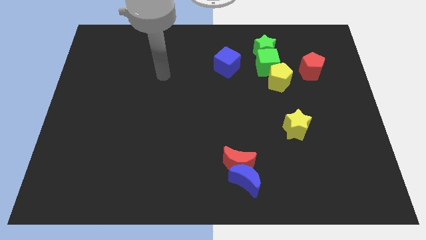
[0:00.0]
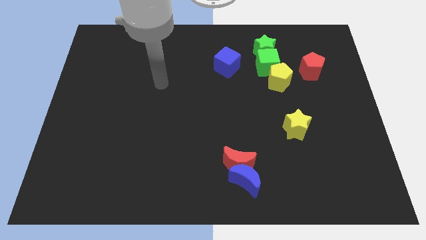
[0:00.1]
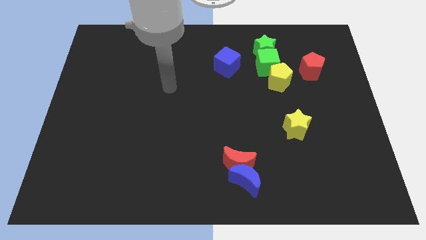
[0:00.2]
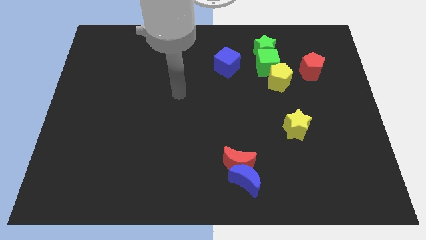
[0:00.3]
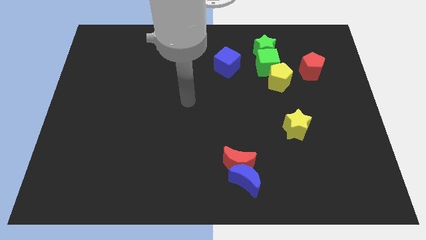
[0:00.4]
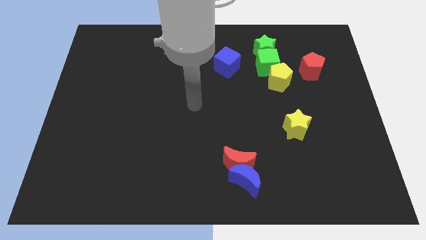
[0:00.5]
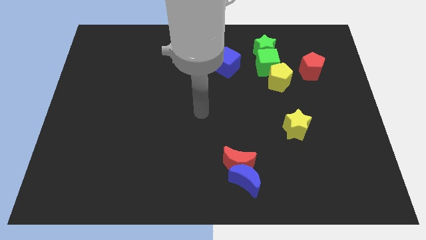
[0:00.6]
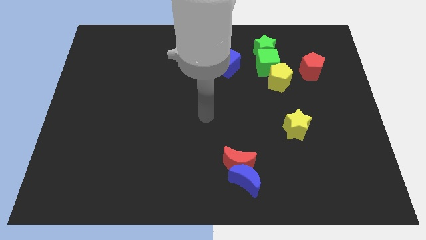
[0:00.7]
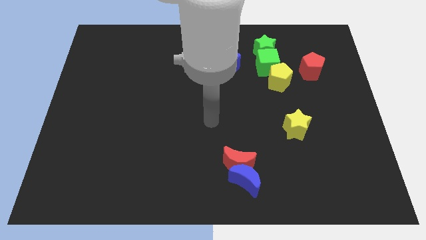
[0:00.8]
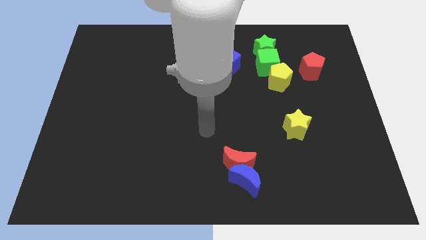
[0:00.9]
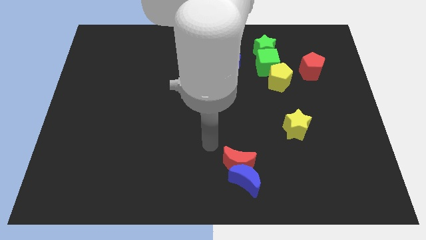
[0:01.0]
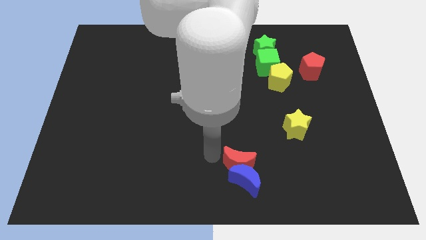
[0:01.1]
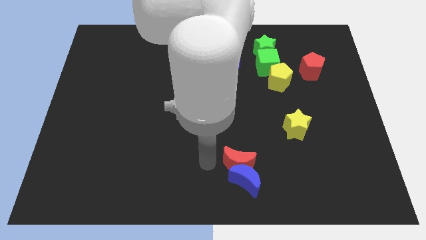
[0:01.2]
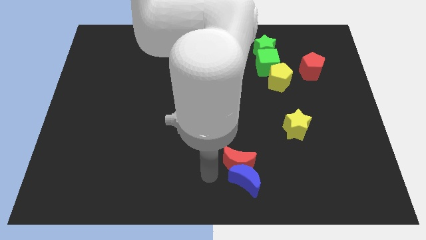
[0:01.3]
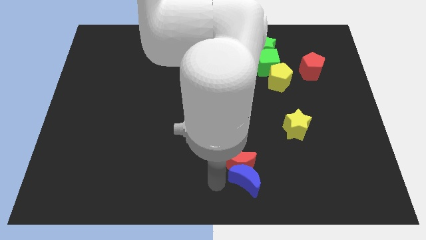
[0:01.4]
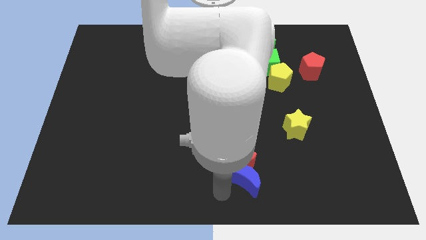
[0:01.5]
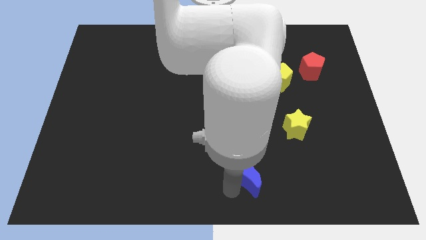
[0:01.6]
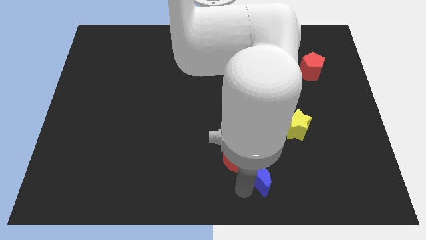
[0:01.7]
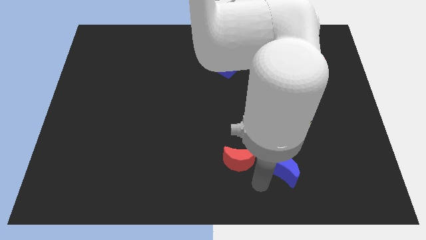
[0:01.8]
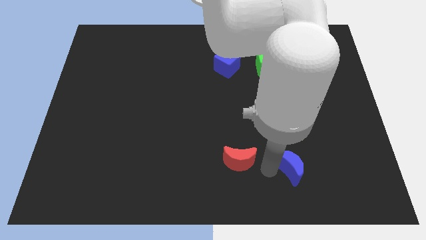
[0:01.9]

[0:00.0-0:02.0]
separate the red moon from the blue moon

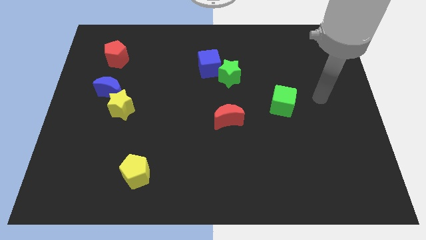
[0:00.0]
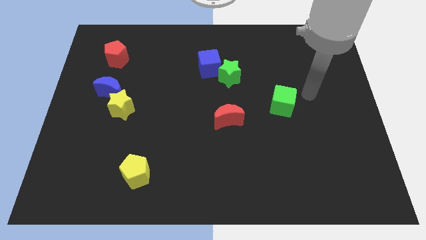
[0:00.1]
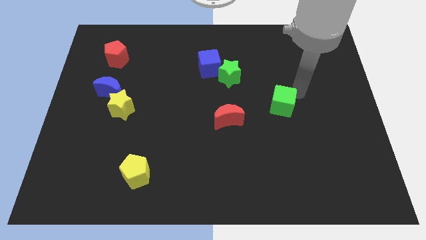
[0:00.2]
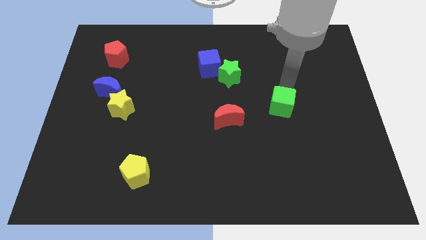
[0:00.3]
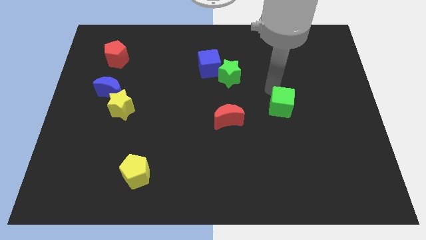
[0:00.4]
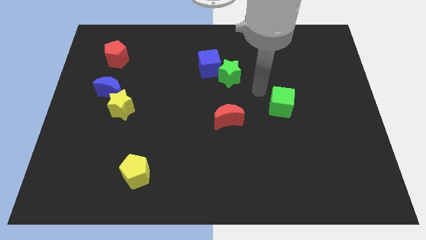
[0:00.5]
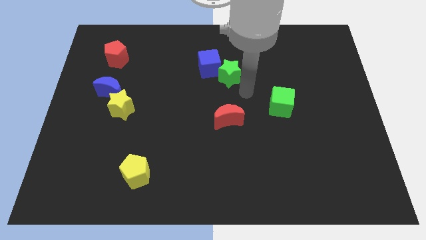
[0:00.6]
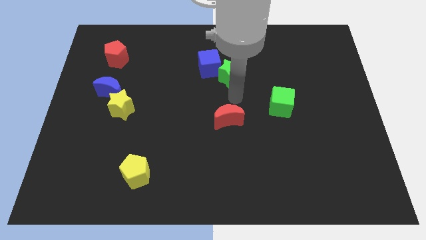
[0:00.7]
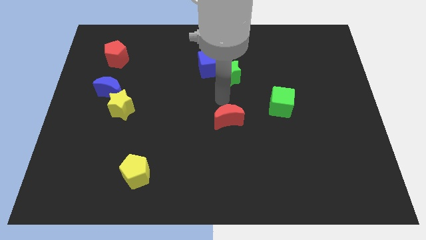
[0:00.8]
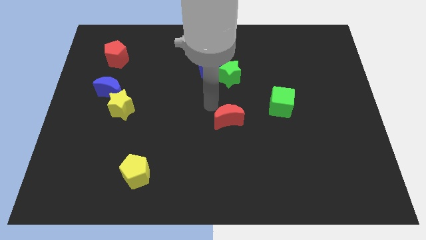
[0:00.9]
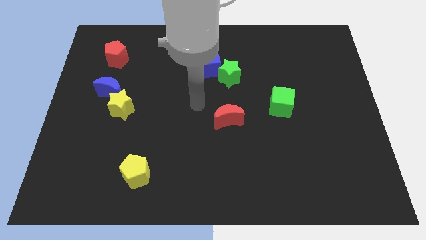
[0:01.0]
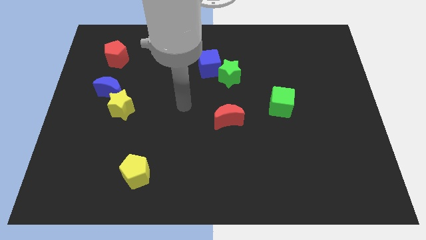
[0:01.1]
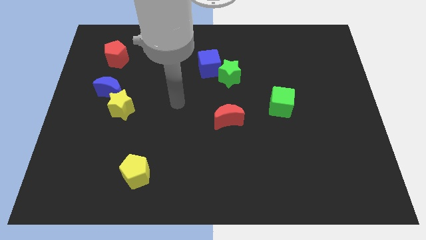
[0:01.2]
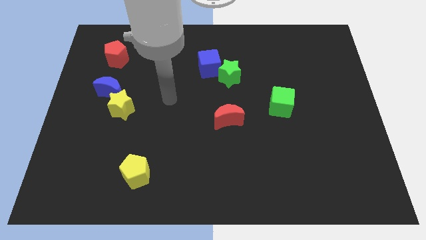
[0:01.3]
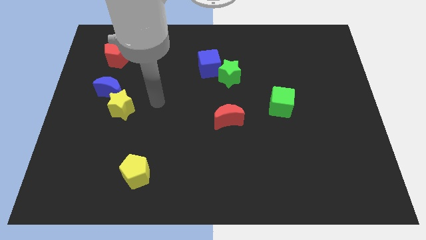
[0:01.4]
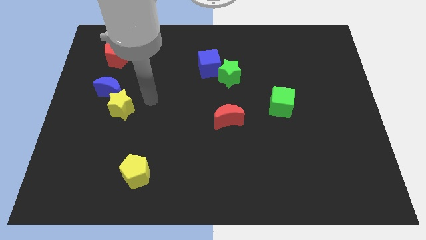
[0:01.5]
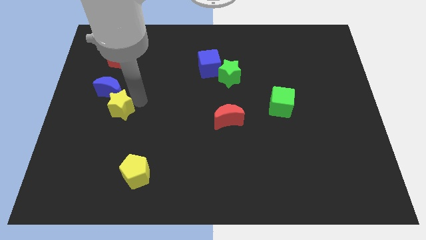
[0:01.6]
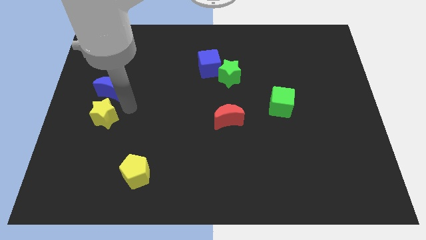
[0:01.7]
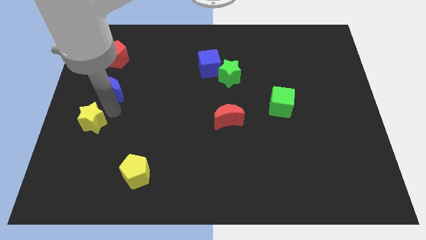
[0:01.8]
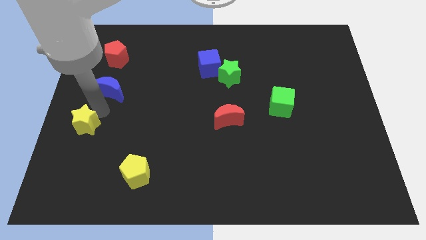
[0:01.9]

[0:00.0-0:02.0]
separate the blue moon from the yellow star

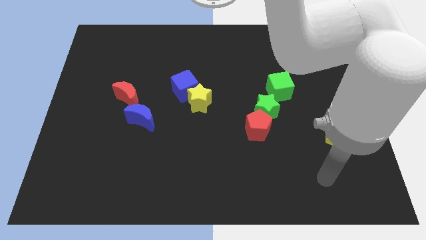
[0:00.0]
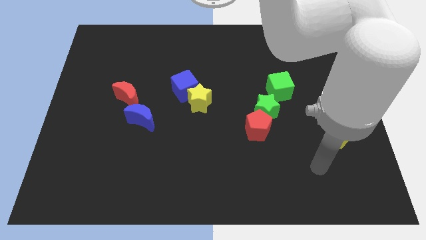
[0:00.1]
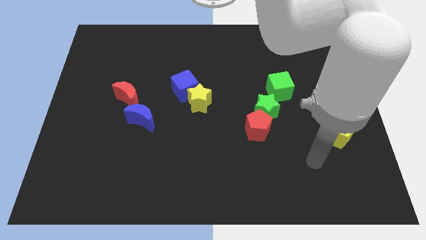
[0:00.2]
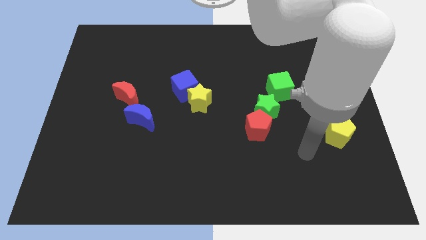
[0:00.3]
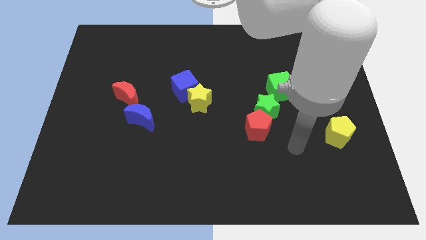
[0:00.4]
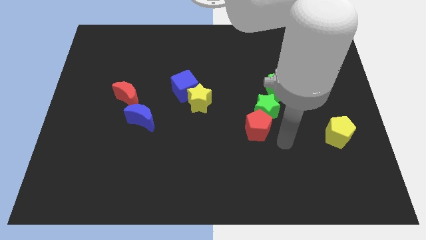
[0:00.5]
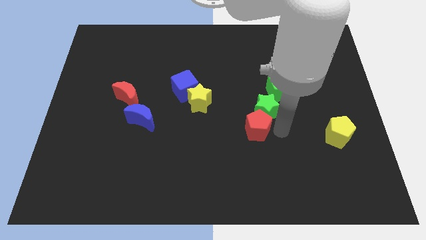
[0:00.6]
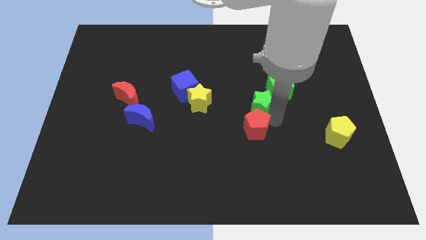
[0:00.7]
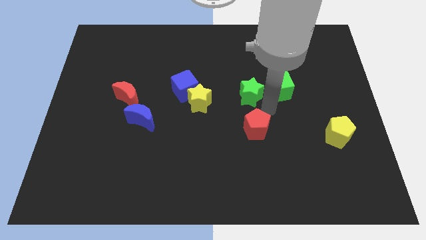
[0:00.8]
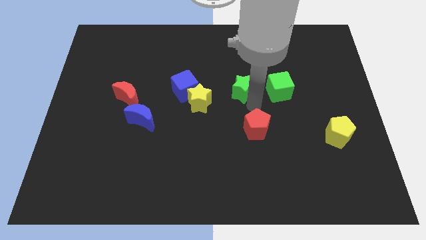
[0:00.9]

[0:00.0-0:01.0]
move the red pentagon away from the green star

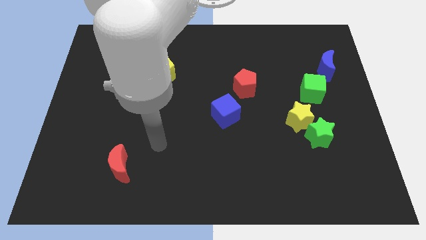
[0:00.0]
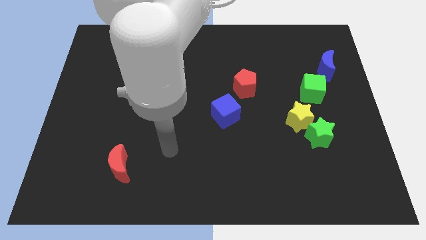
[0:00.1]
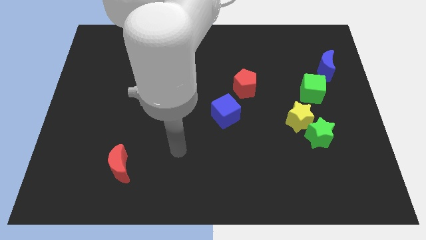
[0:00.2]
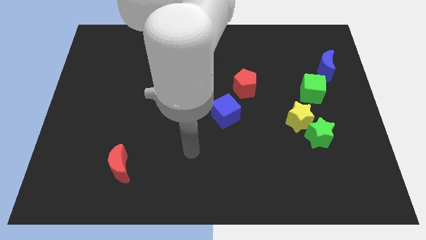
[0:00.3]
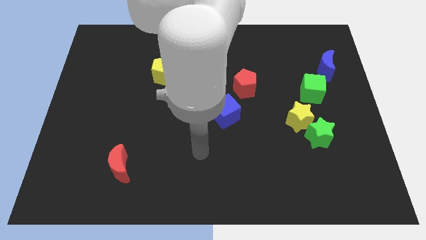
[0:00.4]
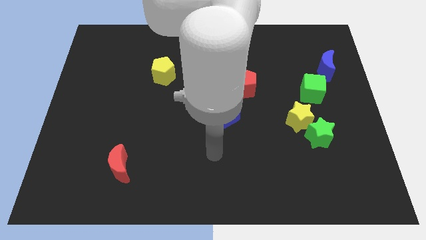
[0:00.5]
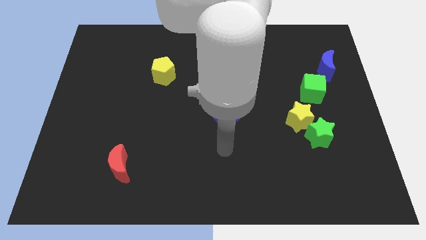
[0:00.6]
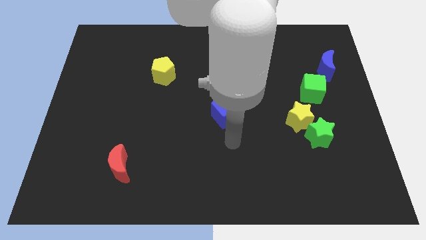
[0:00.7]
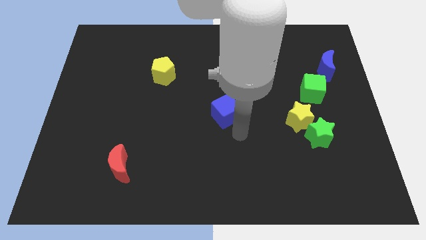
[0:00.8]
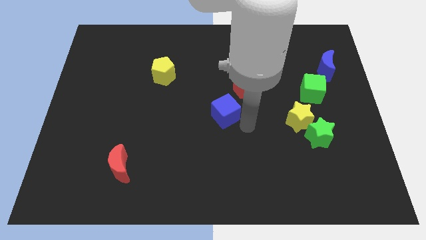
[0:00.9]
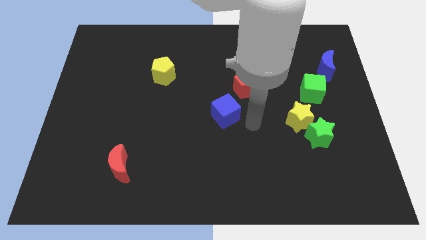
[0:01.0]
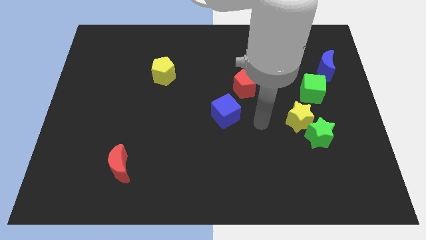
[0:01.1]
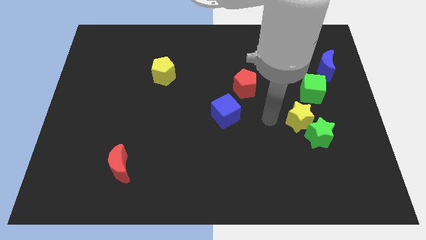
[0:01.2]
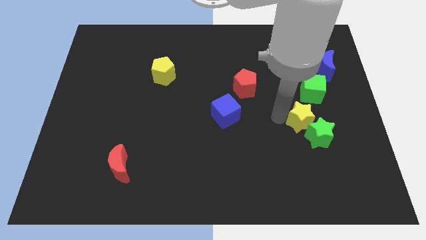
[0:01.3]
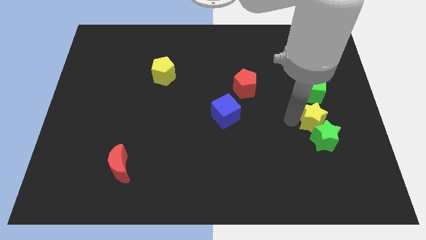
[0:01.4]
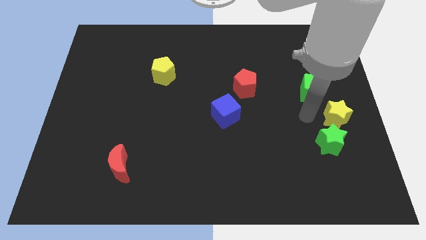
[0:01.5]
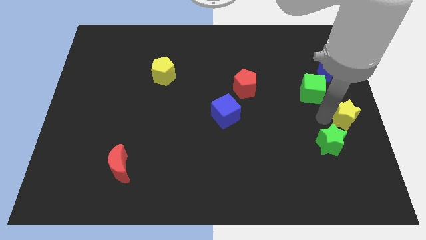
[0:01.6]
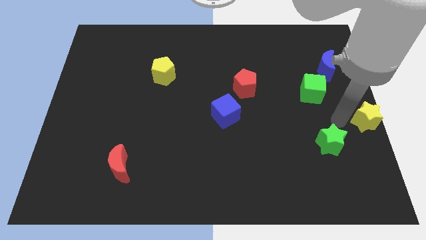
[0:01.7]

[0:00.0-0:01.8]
move the green star away from the yellow star

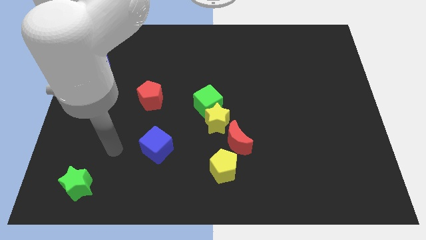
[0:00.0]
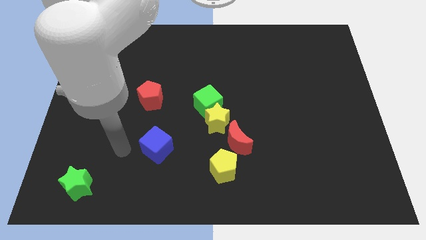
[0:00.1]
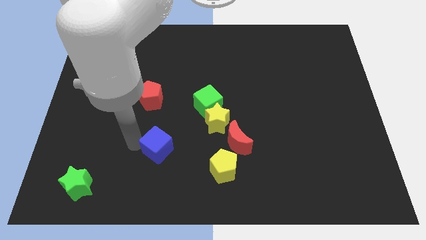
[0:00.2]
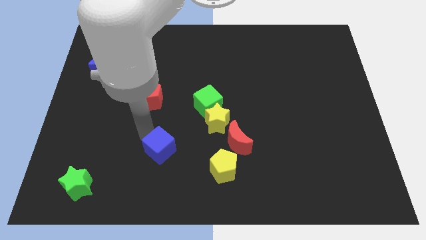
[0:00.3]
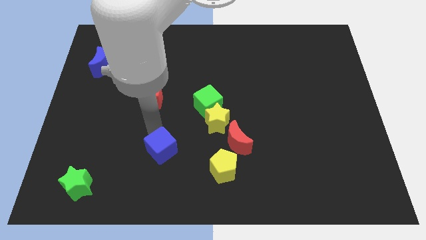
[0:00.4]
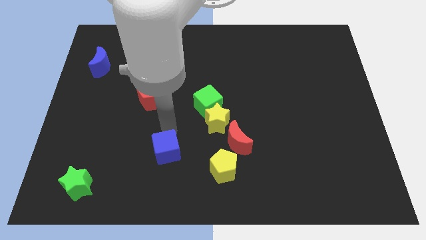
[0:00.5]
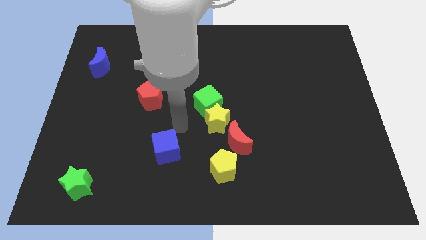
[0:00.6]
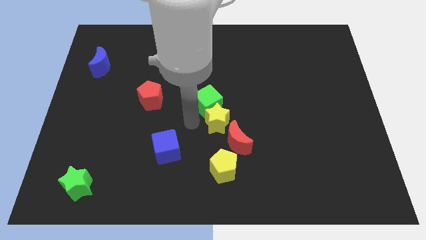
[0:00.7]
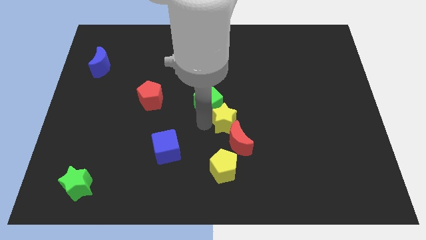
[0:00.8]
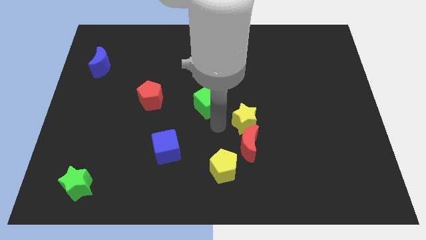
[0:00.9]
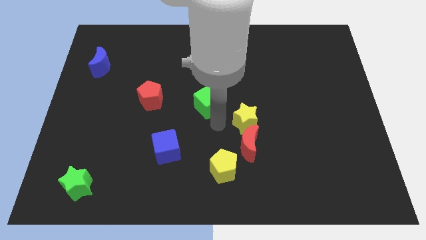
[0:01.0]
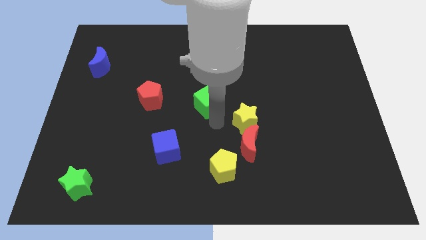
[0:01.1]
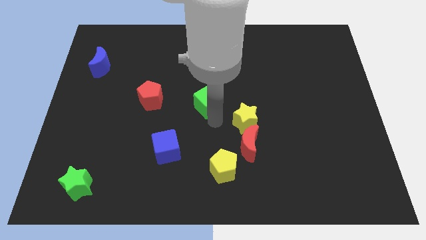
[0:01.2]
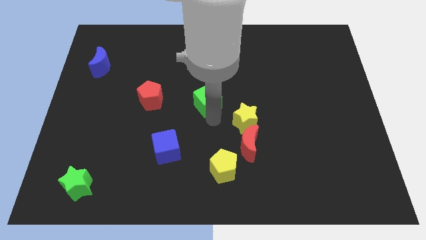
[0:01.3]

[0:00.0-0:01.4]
pull the green cube apart from the yellow star

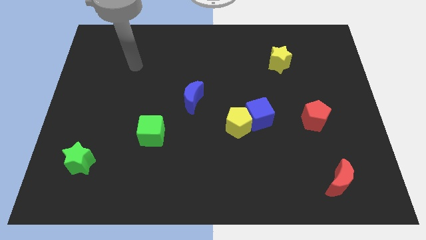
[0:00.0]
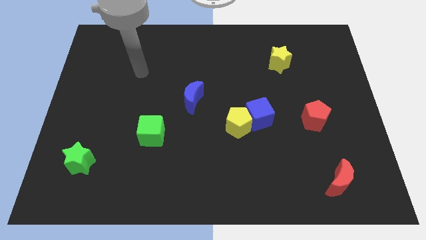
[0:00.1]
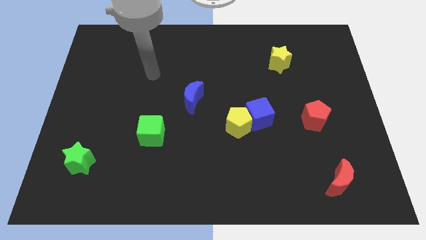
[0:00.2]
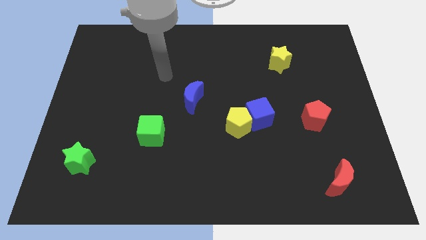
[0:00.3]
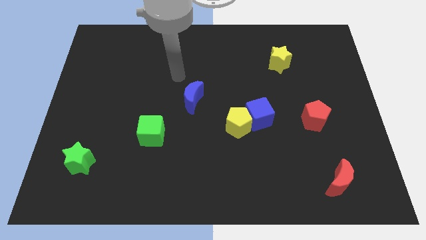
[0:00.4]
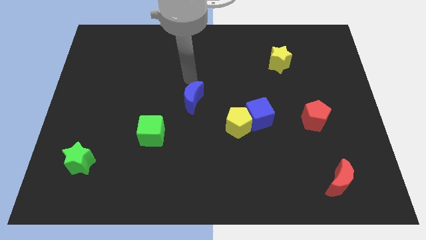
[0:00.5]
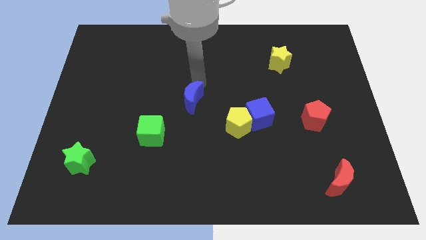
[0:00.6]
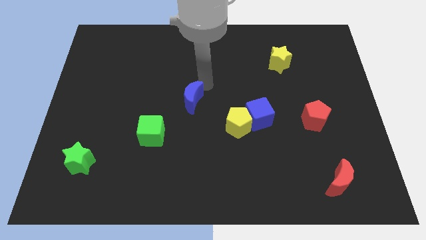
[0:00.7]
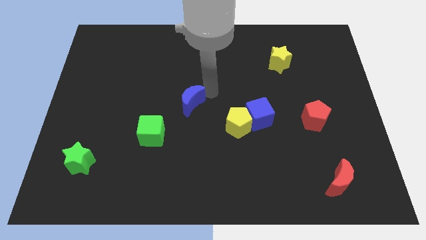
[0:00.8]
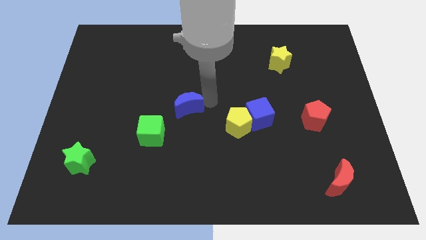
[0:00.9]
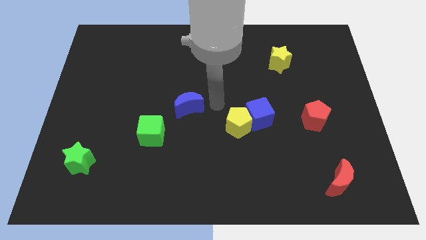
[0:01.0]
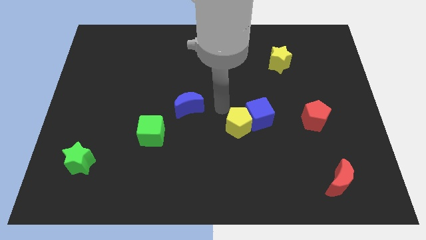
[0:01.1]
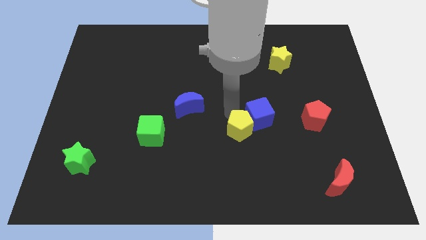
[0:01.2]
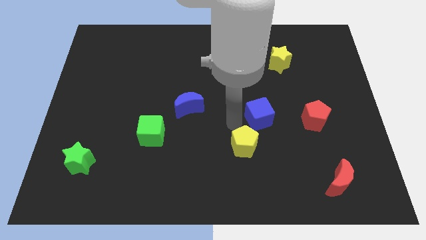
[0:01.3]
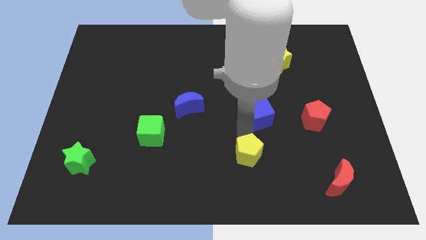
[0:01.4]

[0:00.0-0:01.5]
separate the blue cube from the yellow pentagon
